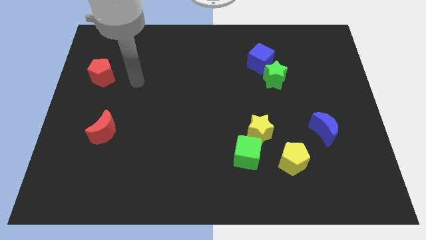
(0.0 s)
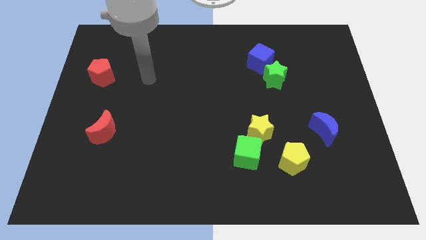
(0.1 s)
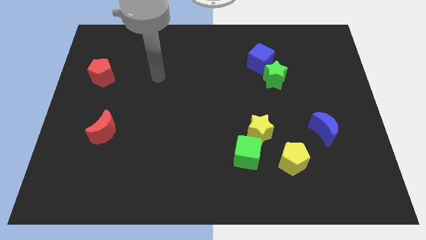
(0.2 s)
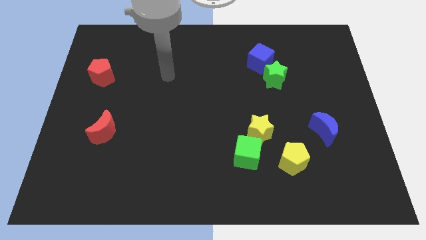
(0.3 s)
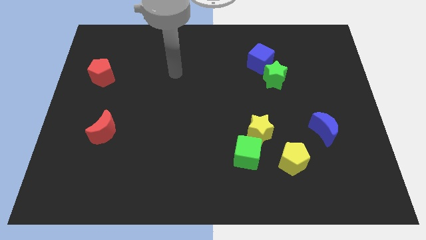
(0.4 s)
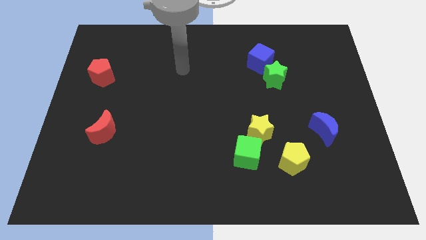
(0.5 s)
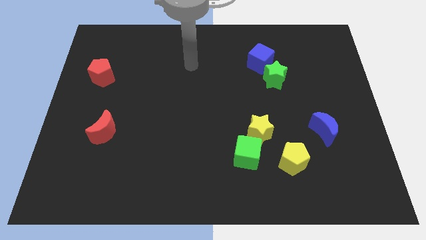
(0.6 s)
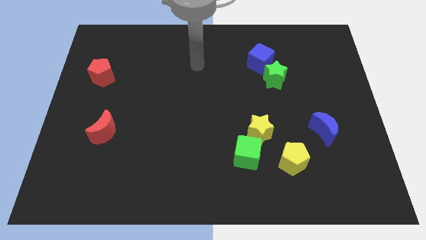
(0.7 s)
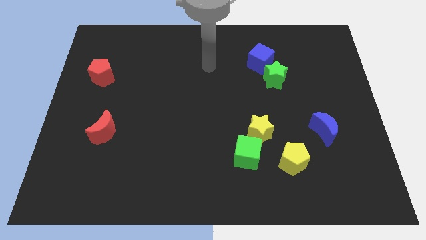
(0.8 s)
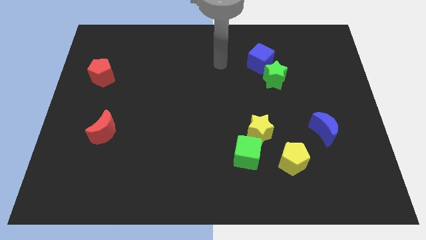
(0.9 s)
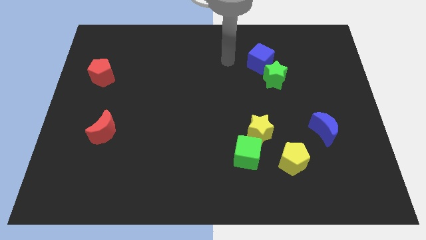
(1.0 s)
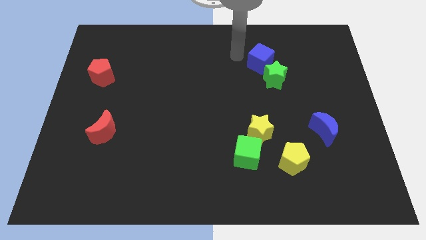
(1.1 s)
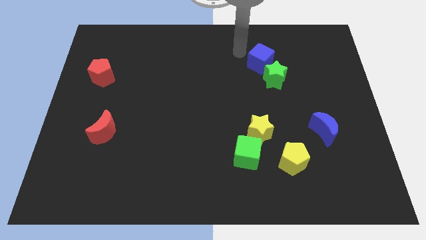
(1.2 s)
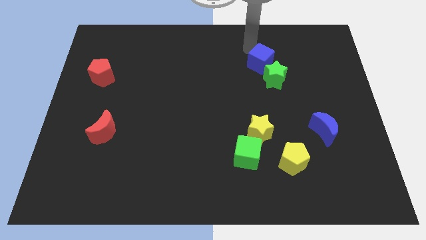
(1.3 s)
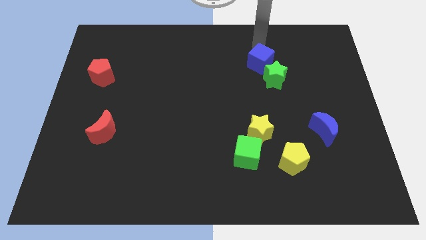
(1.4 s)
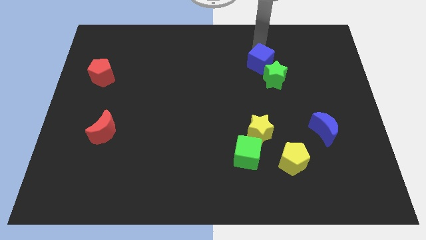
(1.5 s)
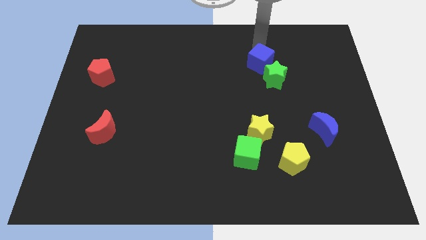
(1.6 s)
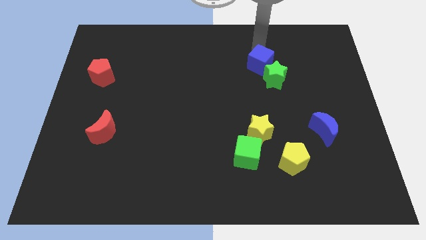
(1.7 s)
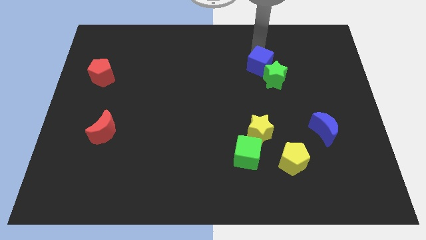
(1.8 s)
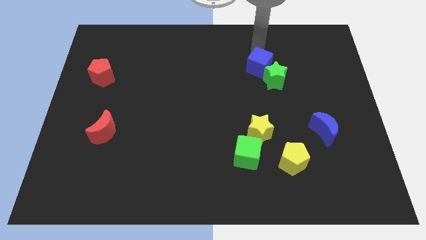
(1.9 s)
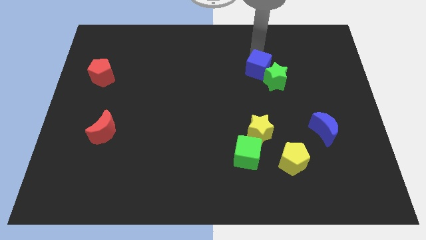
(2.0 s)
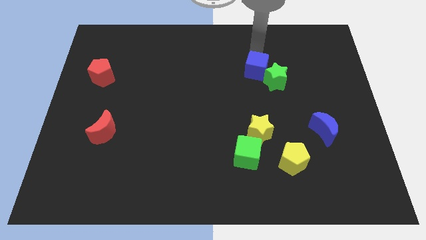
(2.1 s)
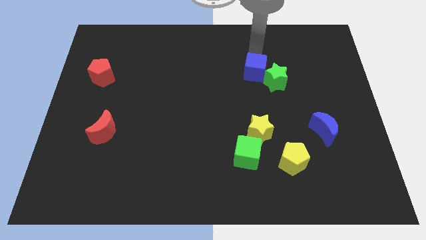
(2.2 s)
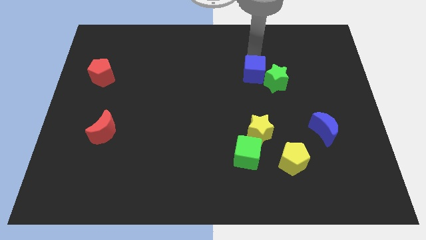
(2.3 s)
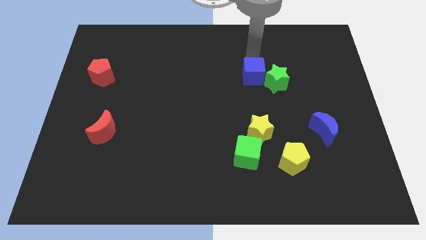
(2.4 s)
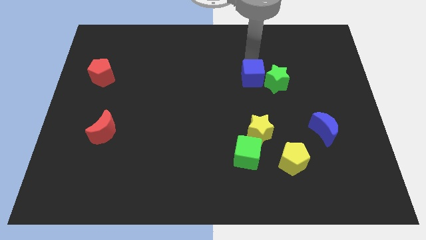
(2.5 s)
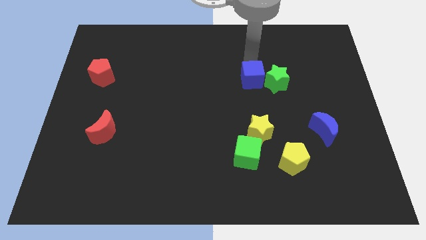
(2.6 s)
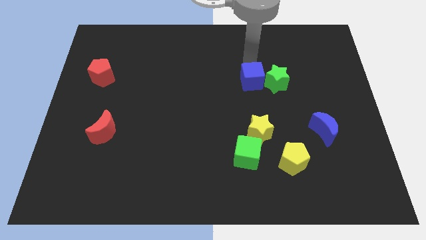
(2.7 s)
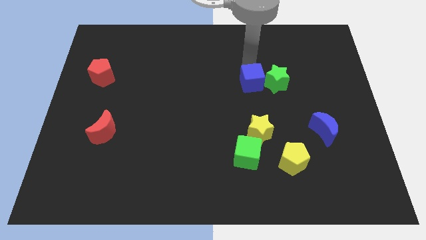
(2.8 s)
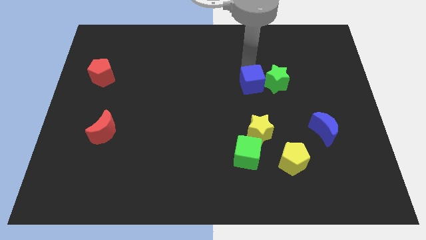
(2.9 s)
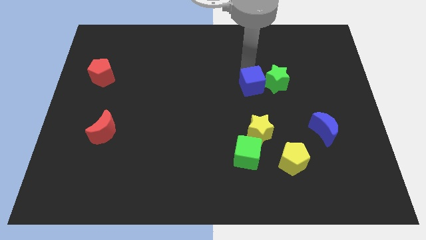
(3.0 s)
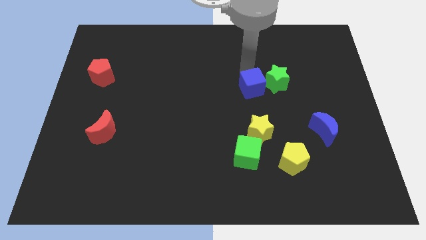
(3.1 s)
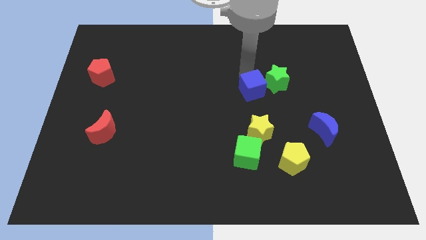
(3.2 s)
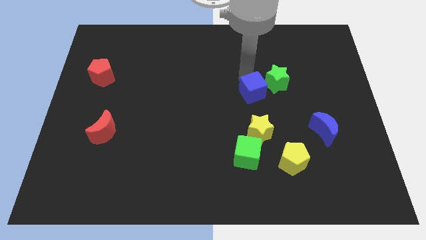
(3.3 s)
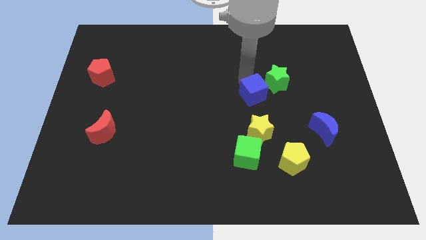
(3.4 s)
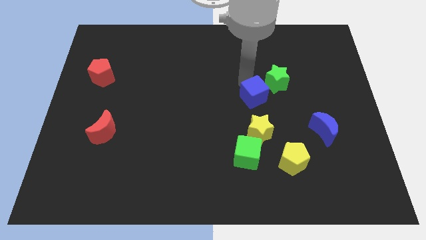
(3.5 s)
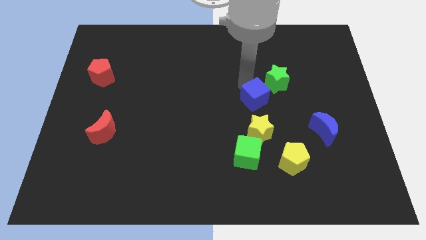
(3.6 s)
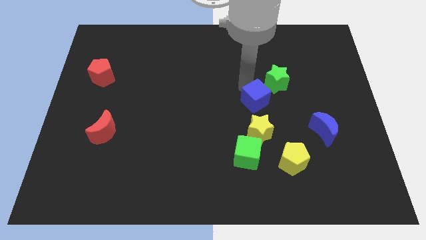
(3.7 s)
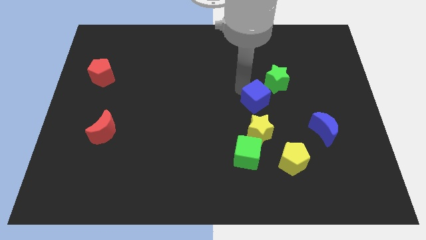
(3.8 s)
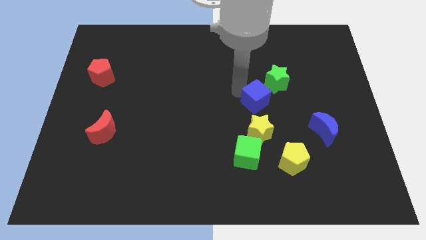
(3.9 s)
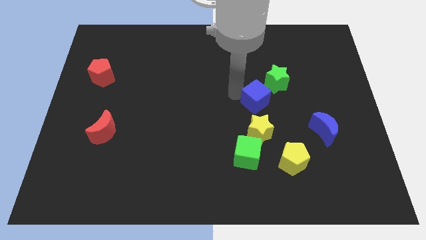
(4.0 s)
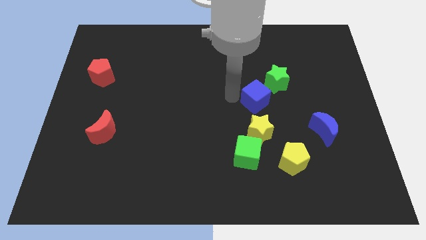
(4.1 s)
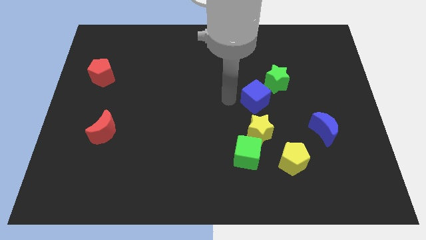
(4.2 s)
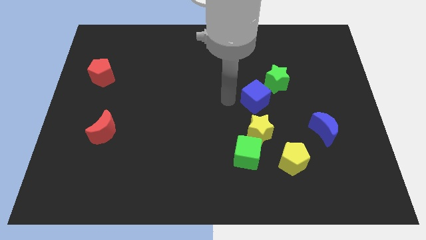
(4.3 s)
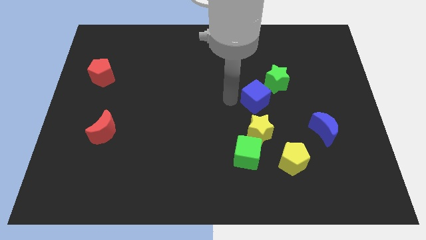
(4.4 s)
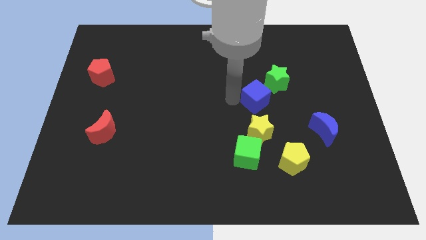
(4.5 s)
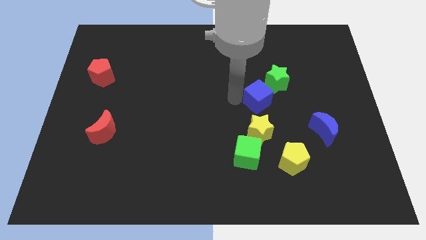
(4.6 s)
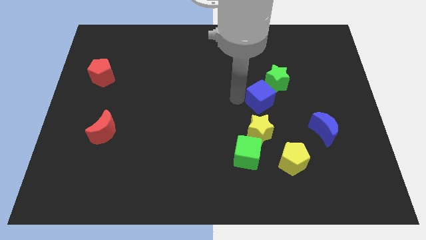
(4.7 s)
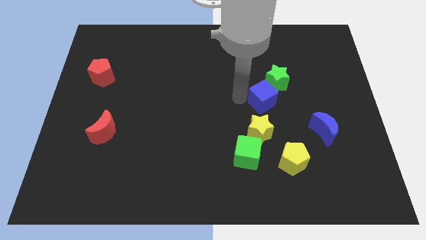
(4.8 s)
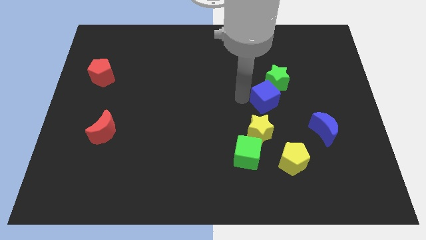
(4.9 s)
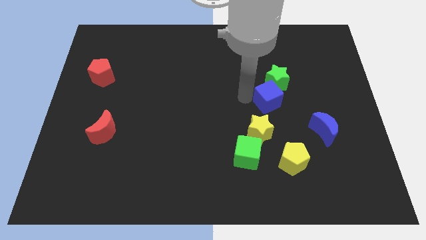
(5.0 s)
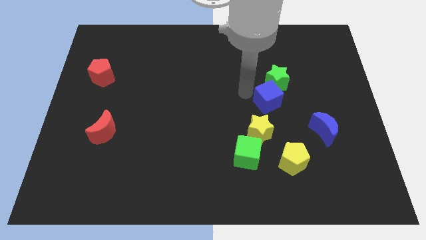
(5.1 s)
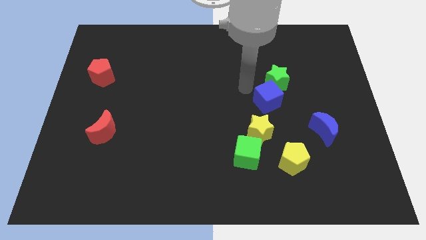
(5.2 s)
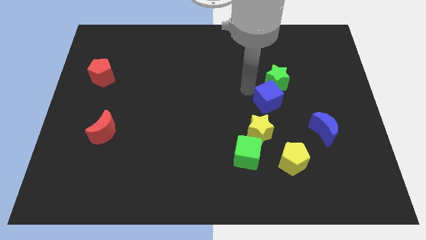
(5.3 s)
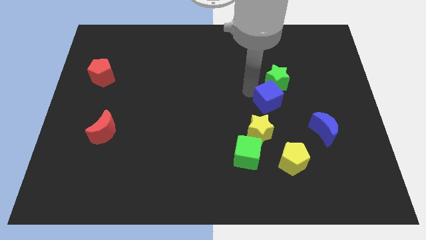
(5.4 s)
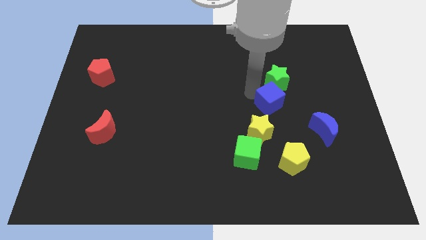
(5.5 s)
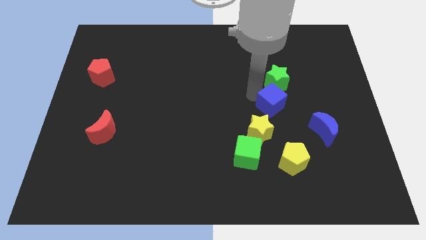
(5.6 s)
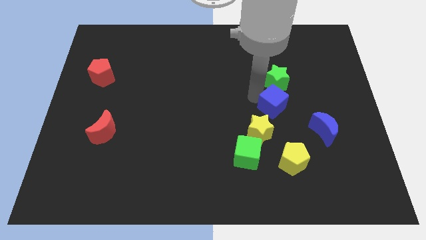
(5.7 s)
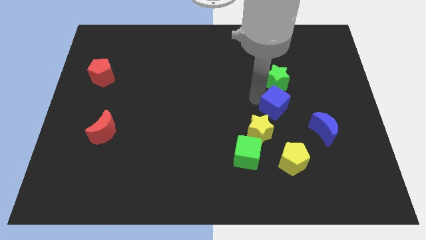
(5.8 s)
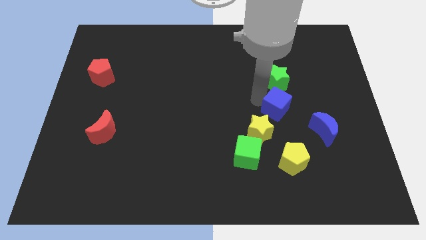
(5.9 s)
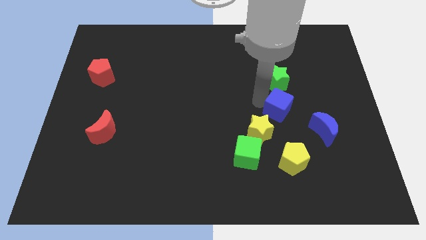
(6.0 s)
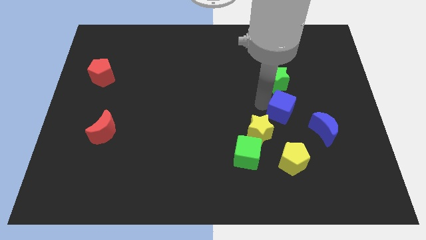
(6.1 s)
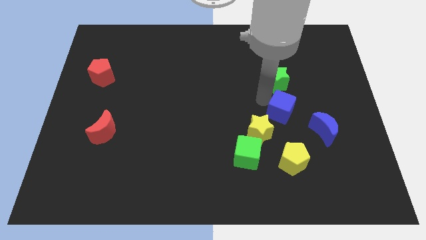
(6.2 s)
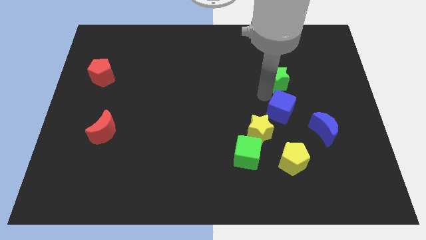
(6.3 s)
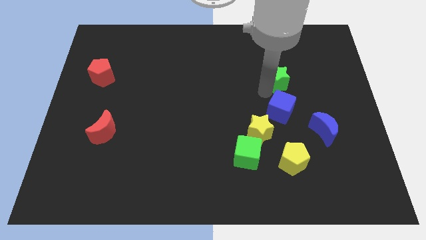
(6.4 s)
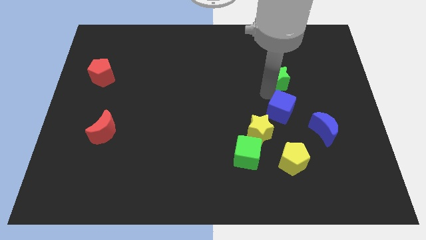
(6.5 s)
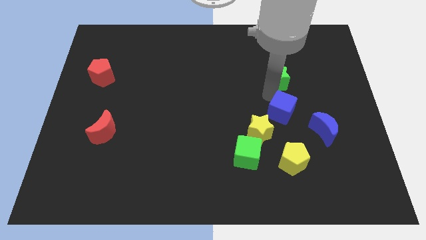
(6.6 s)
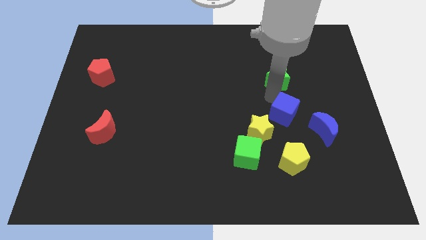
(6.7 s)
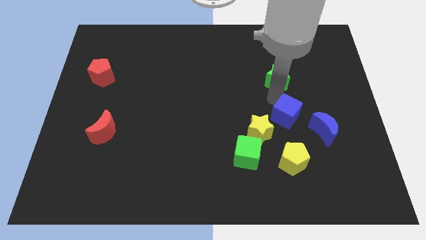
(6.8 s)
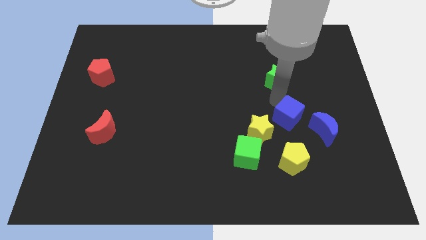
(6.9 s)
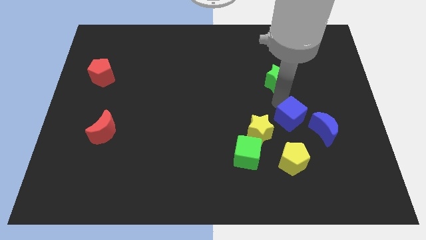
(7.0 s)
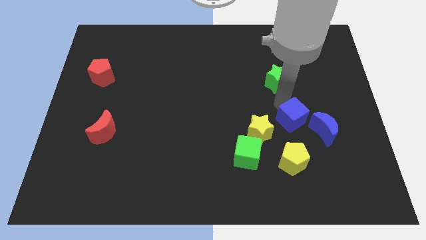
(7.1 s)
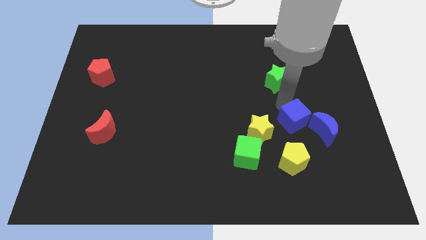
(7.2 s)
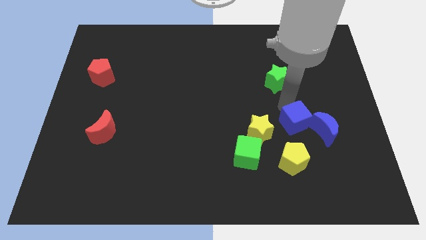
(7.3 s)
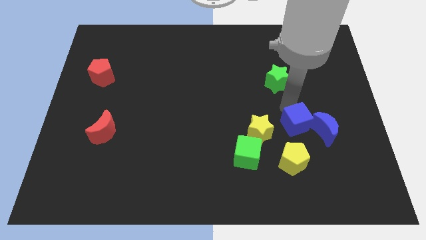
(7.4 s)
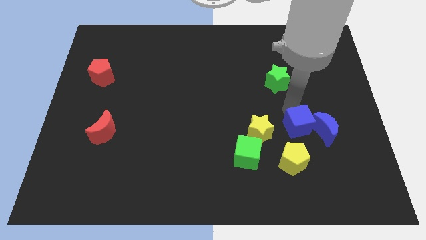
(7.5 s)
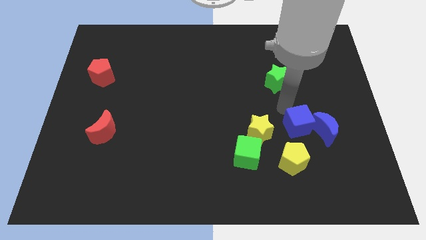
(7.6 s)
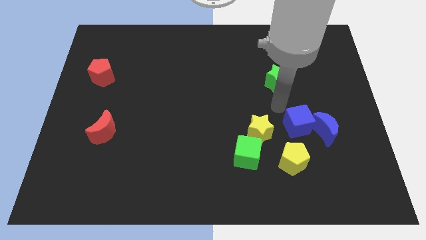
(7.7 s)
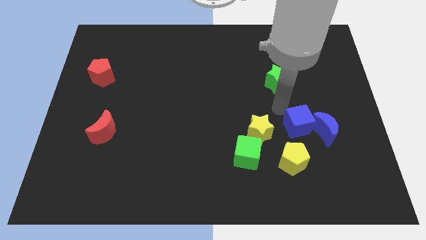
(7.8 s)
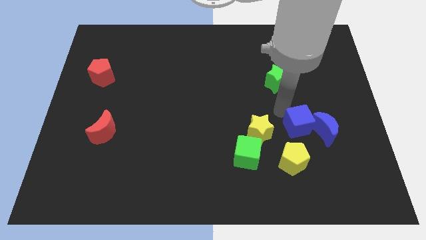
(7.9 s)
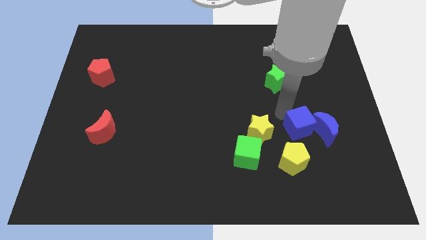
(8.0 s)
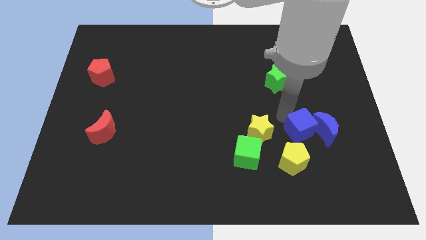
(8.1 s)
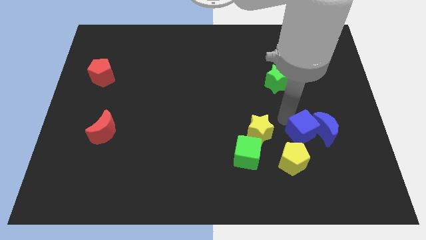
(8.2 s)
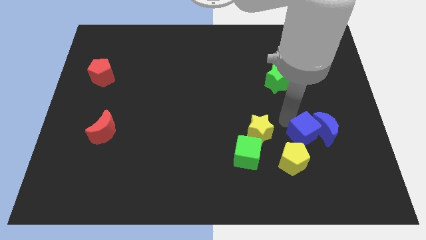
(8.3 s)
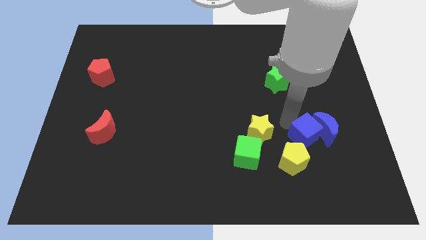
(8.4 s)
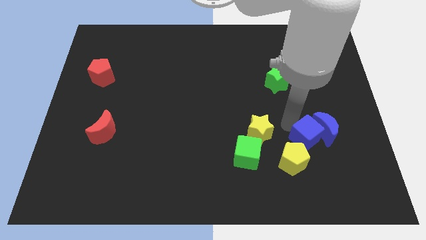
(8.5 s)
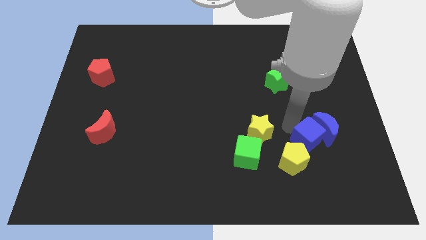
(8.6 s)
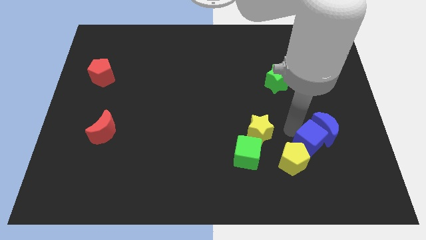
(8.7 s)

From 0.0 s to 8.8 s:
push the blue cube just right of the yellow pentagon
